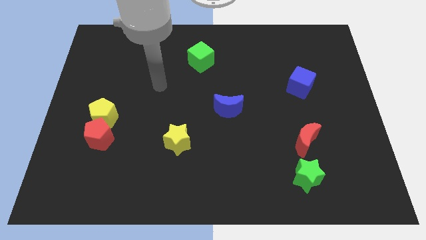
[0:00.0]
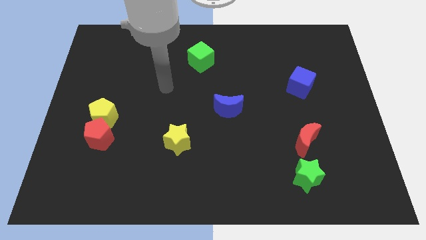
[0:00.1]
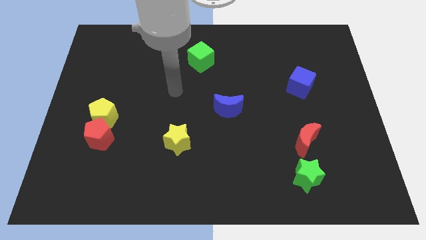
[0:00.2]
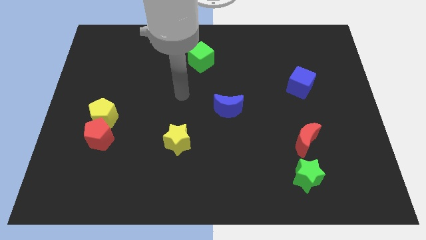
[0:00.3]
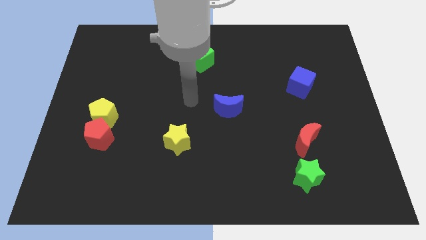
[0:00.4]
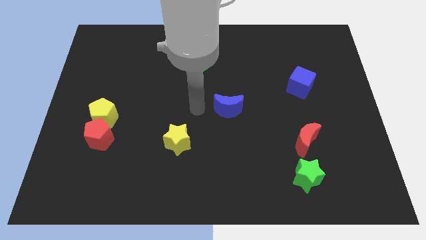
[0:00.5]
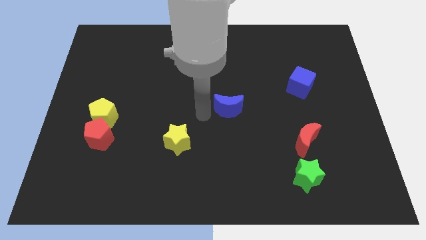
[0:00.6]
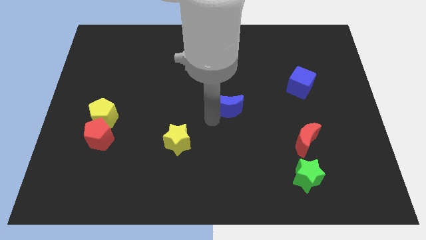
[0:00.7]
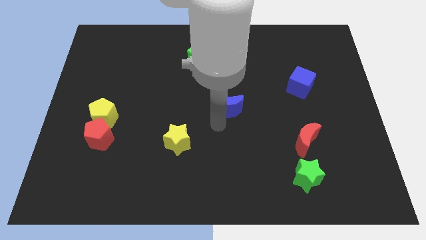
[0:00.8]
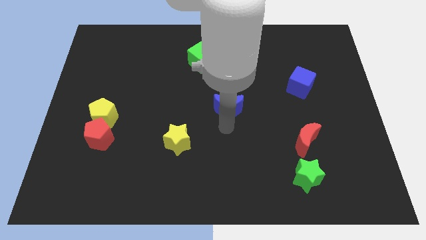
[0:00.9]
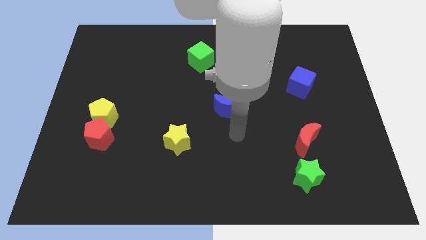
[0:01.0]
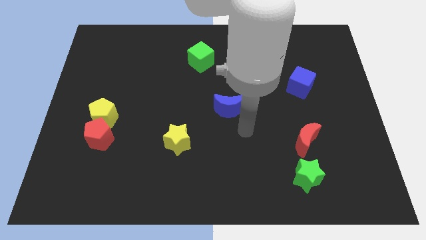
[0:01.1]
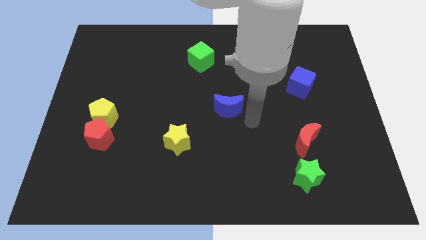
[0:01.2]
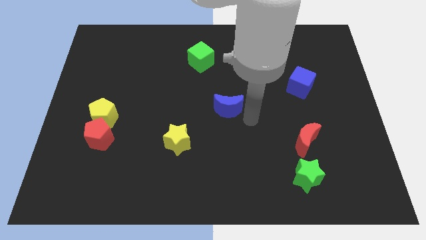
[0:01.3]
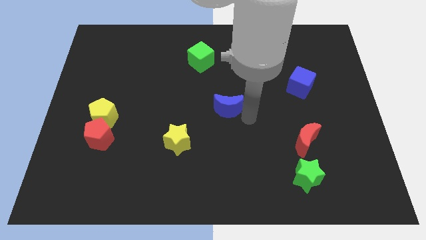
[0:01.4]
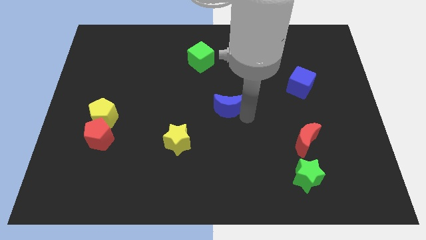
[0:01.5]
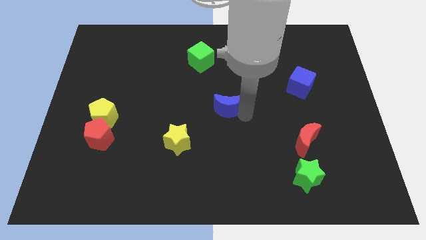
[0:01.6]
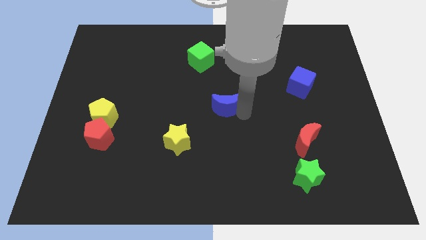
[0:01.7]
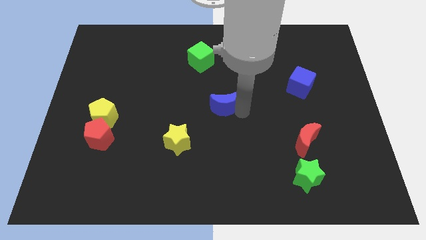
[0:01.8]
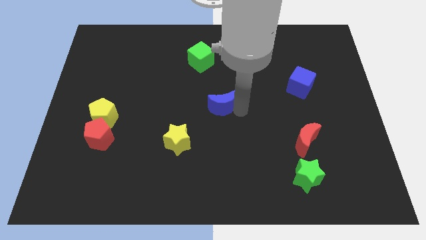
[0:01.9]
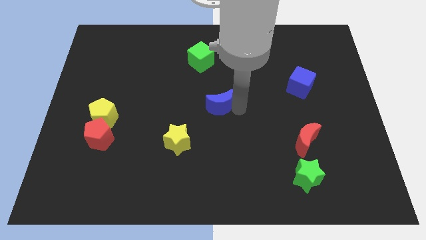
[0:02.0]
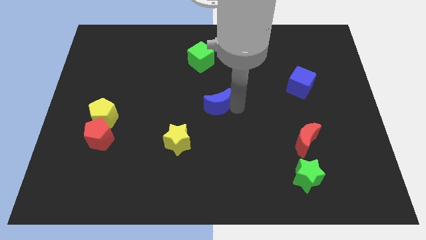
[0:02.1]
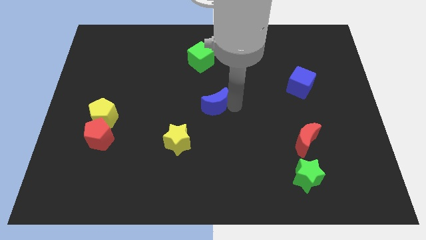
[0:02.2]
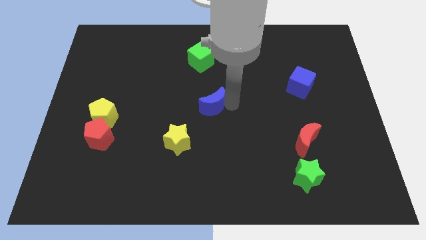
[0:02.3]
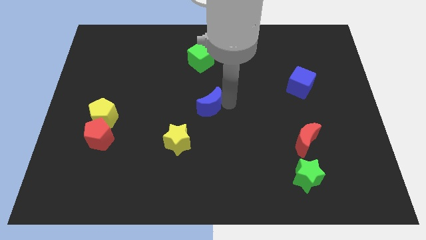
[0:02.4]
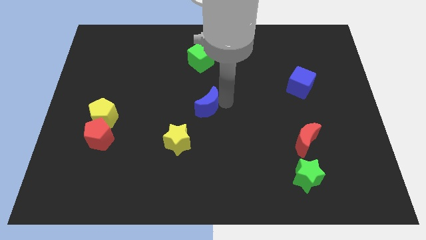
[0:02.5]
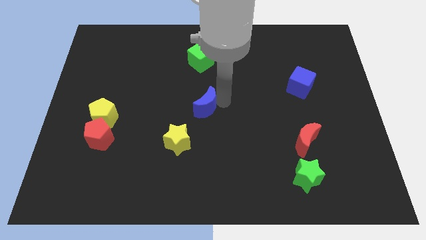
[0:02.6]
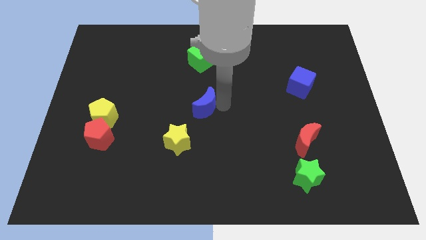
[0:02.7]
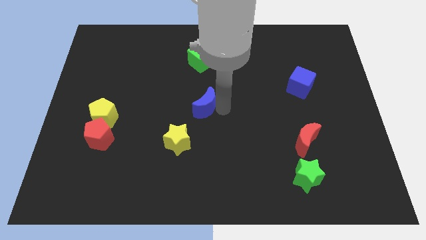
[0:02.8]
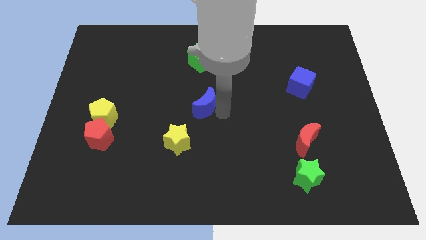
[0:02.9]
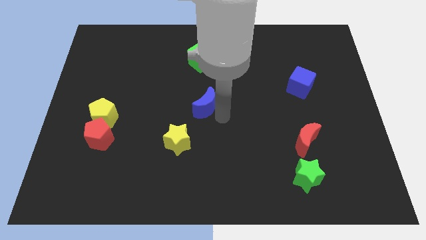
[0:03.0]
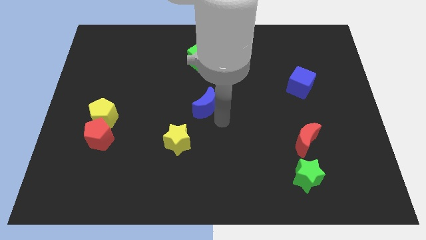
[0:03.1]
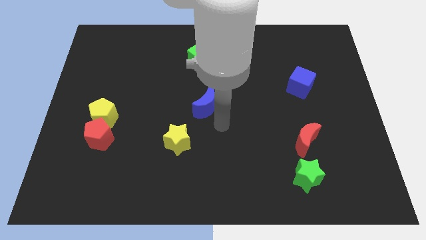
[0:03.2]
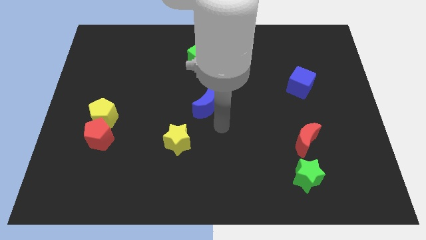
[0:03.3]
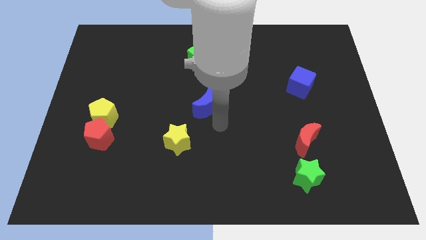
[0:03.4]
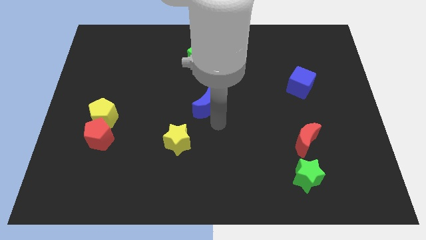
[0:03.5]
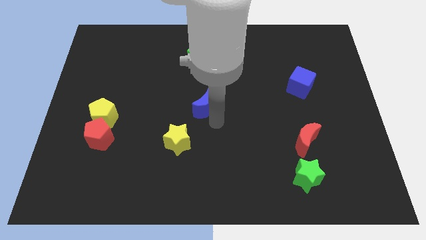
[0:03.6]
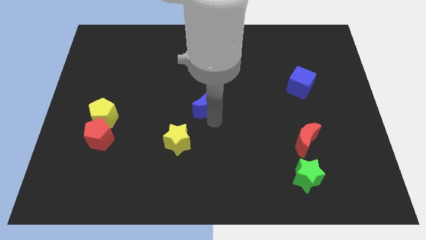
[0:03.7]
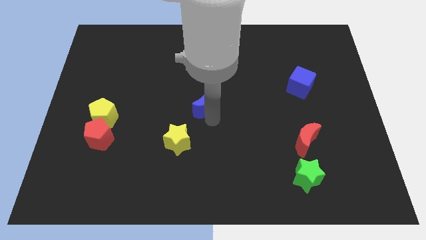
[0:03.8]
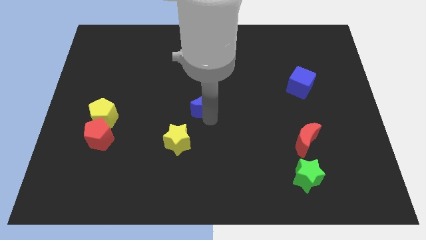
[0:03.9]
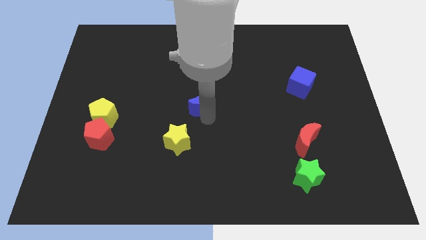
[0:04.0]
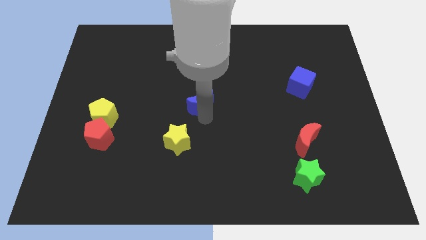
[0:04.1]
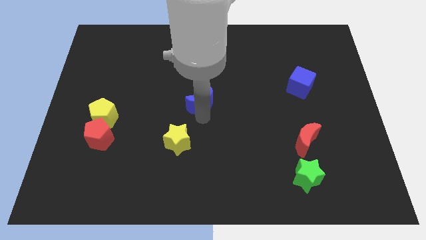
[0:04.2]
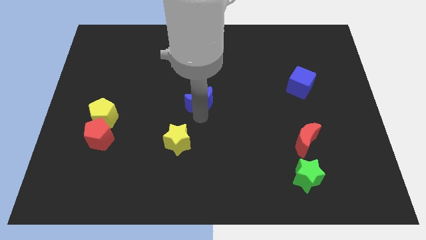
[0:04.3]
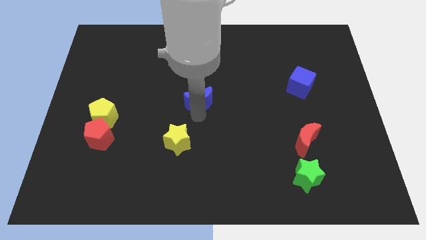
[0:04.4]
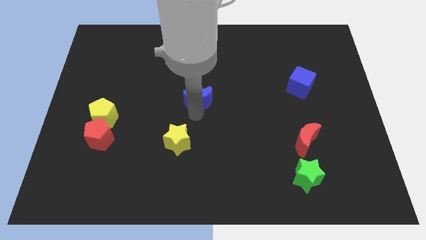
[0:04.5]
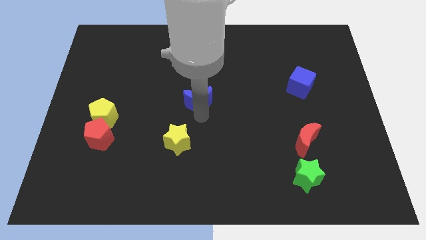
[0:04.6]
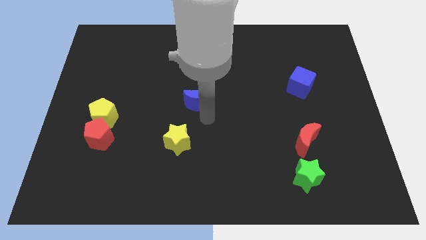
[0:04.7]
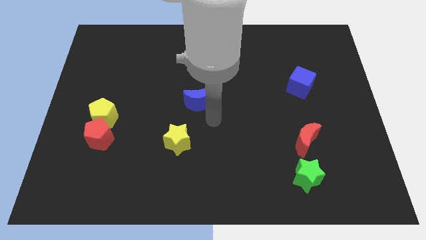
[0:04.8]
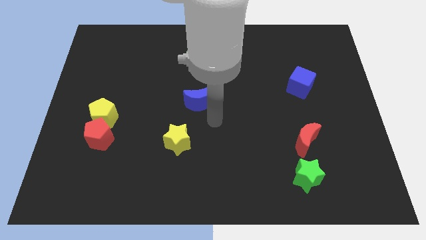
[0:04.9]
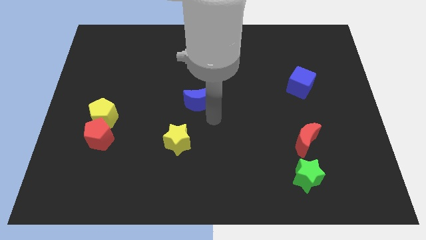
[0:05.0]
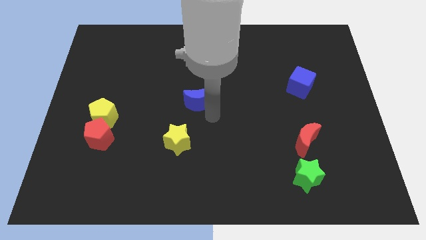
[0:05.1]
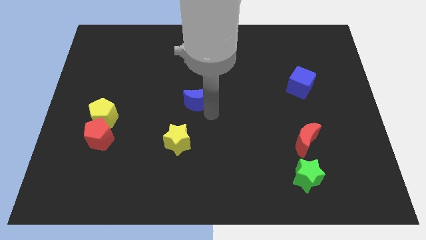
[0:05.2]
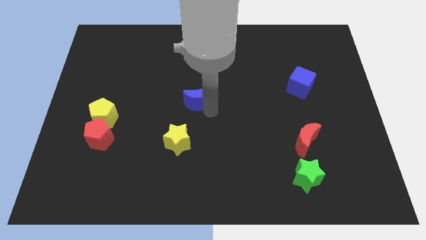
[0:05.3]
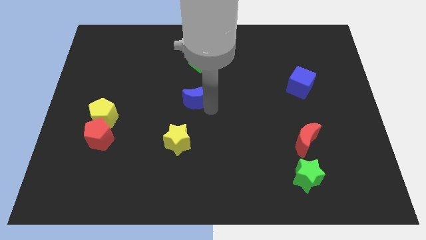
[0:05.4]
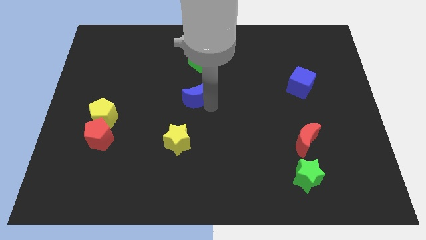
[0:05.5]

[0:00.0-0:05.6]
slightly move the blue moon up and to the left diagonally

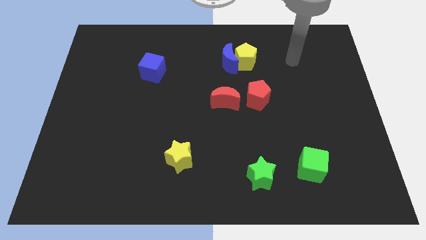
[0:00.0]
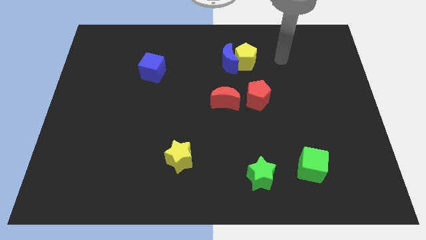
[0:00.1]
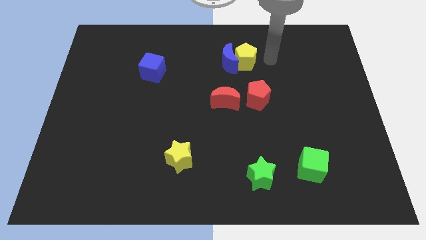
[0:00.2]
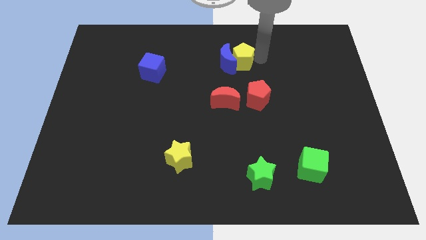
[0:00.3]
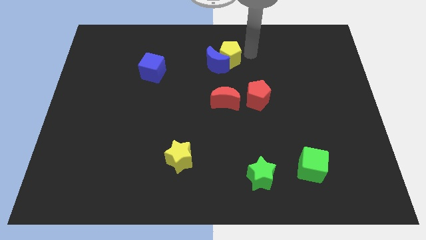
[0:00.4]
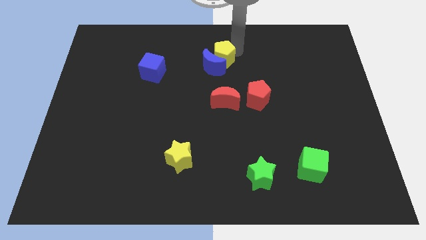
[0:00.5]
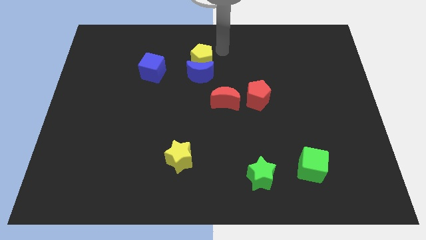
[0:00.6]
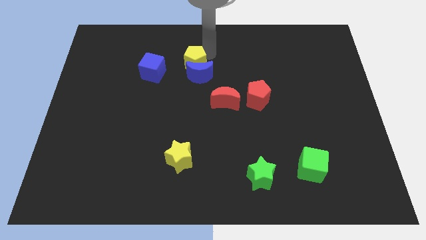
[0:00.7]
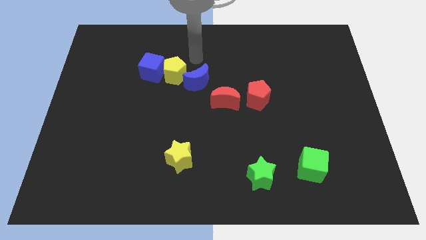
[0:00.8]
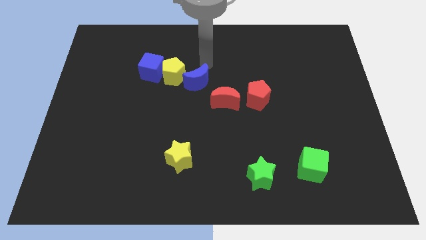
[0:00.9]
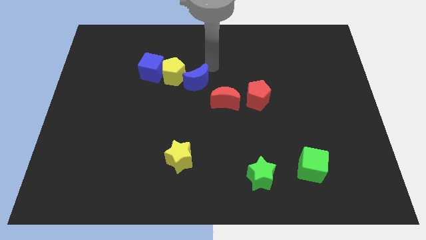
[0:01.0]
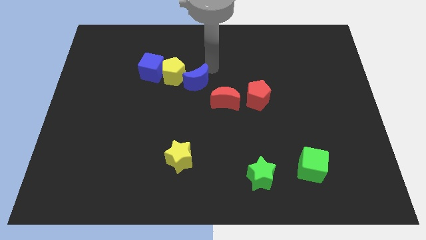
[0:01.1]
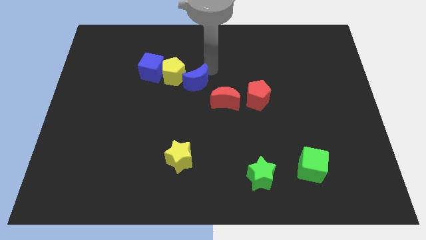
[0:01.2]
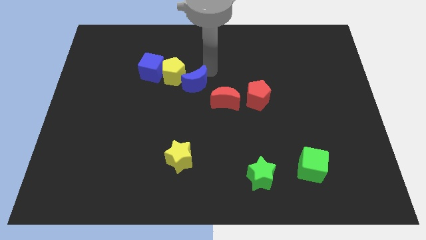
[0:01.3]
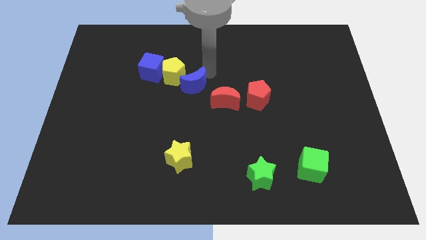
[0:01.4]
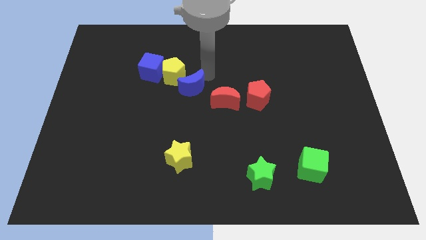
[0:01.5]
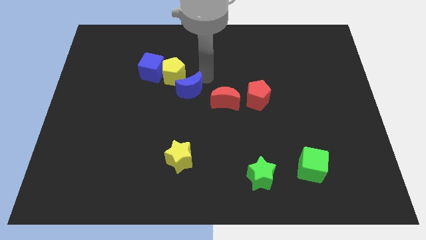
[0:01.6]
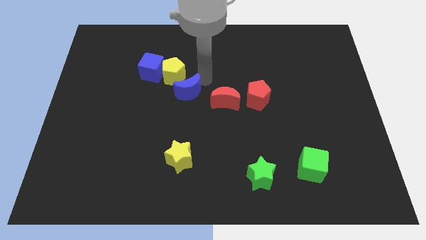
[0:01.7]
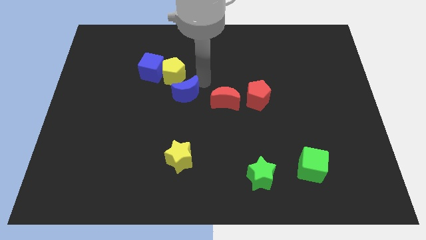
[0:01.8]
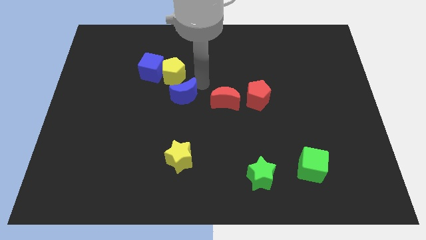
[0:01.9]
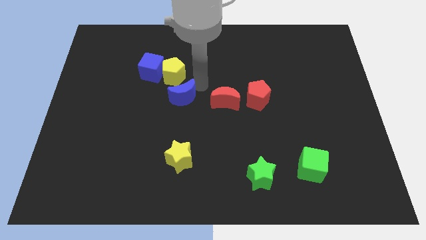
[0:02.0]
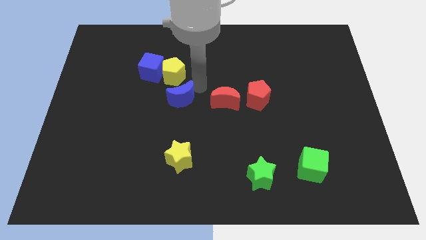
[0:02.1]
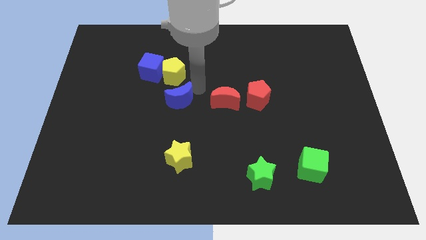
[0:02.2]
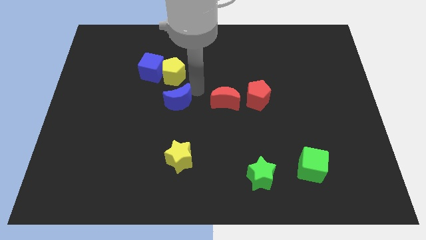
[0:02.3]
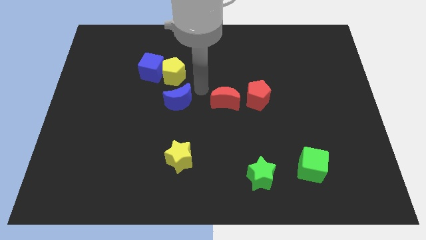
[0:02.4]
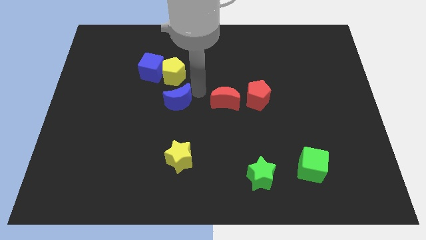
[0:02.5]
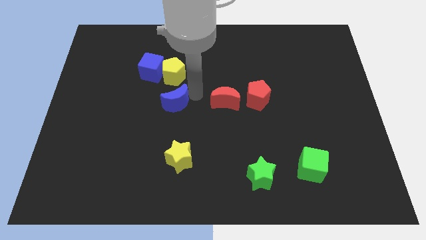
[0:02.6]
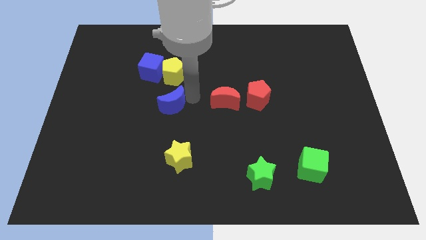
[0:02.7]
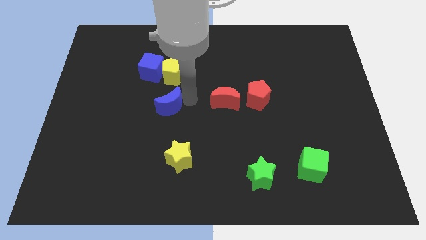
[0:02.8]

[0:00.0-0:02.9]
slide the blue moon diagonally down and to the left
